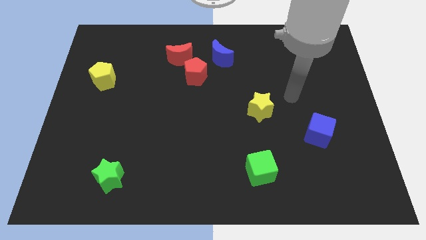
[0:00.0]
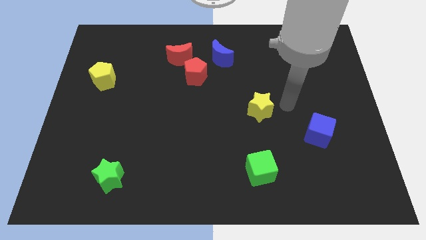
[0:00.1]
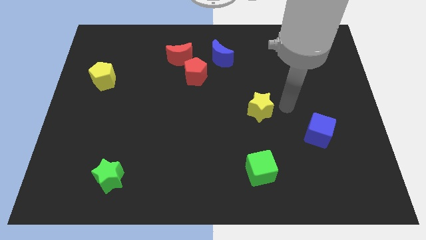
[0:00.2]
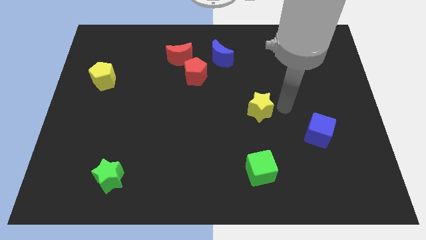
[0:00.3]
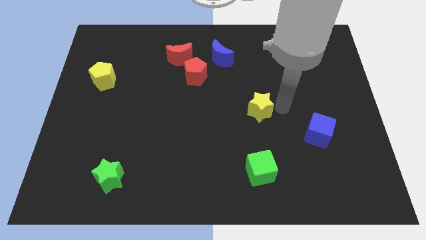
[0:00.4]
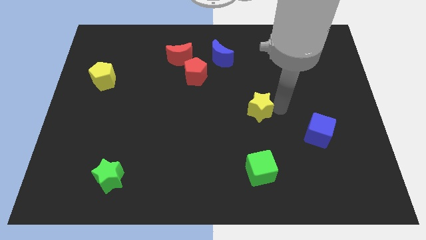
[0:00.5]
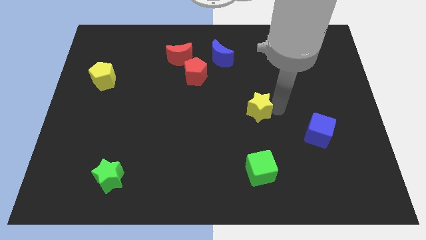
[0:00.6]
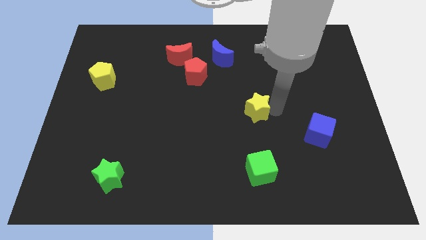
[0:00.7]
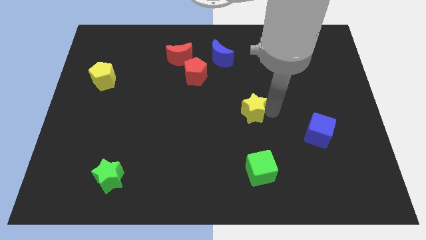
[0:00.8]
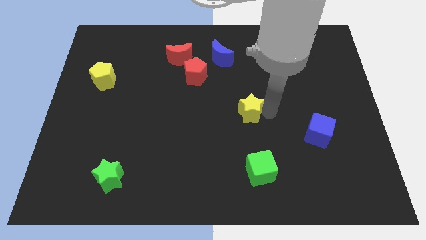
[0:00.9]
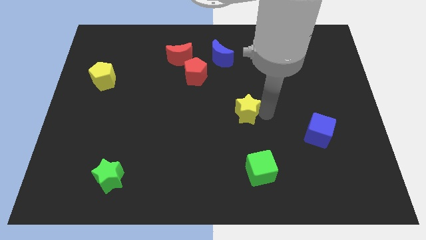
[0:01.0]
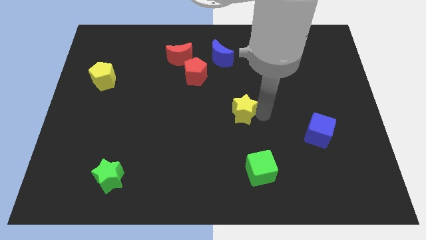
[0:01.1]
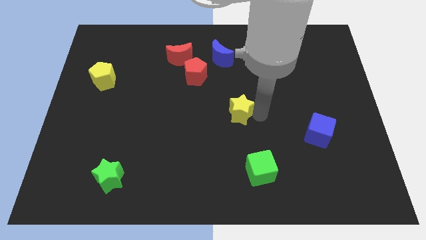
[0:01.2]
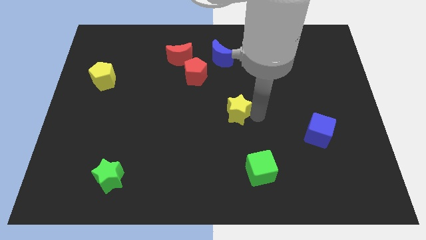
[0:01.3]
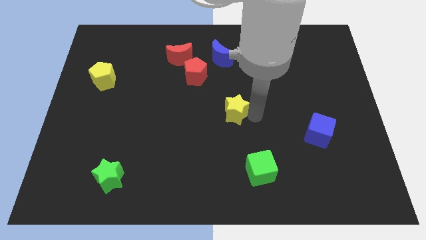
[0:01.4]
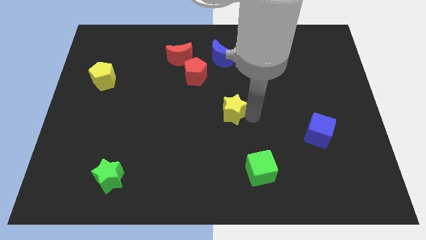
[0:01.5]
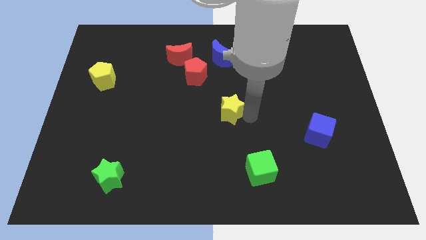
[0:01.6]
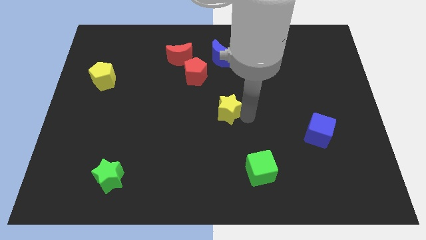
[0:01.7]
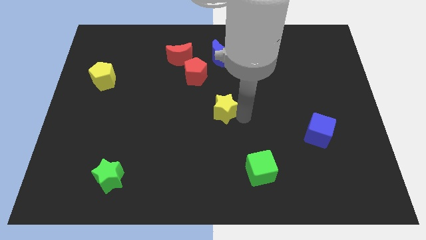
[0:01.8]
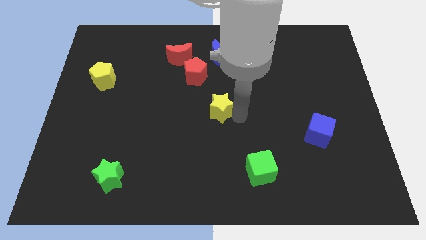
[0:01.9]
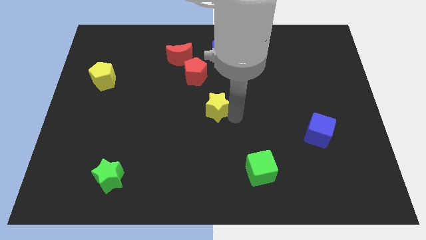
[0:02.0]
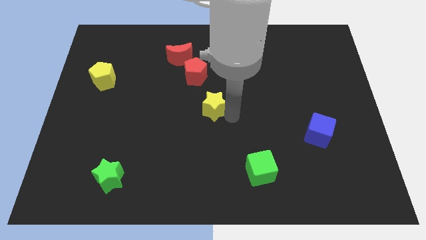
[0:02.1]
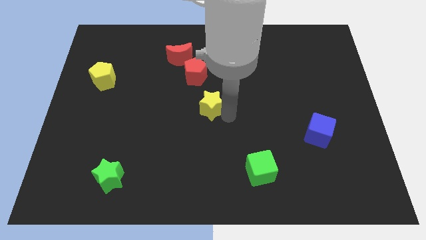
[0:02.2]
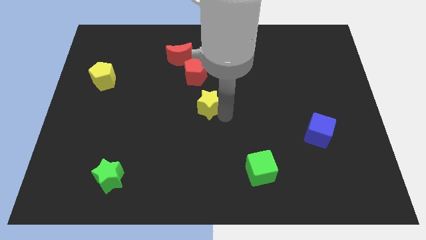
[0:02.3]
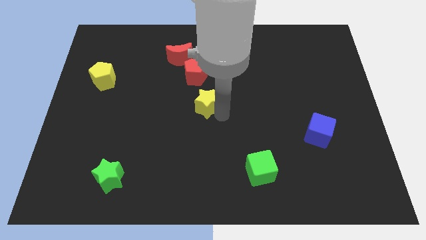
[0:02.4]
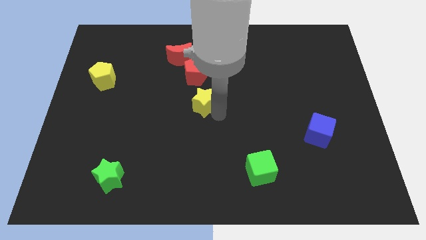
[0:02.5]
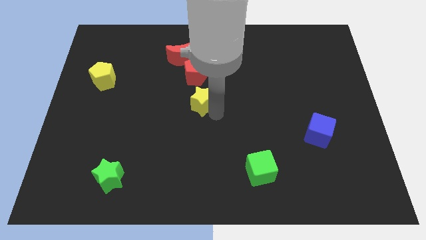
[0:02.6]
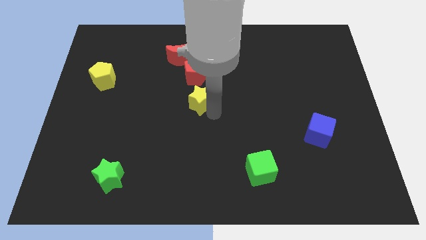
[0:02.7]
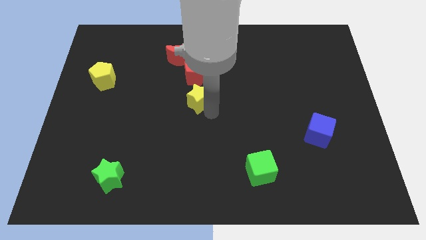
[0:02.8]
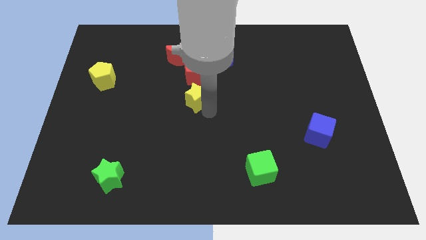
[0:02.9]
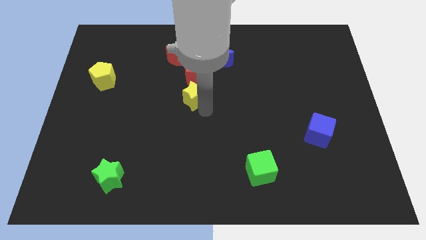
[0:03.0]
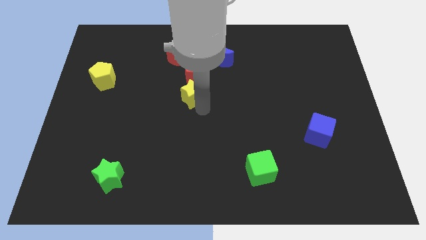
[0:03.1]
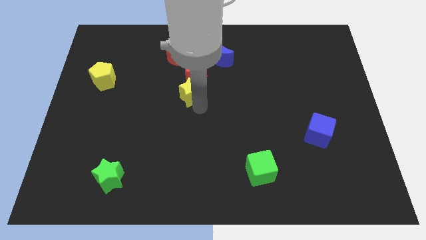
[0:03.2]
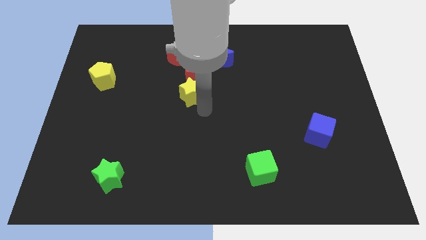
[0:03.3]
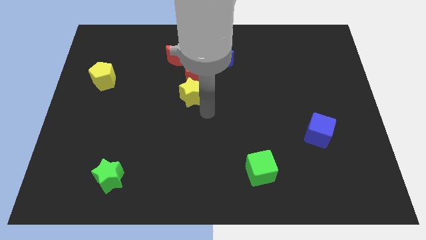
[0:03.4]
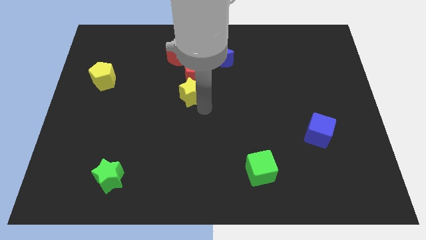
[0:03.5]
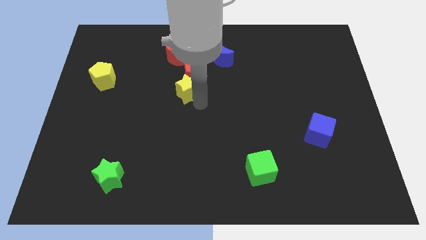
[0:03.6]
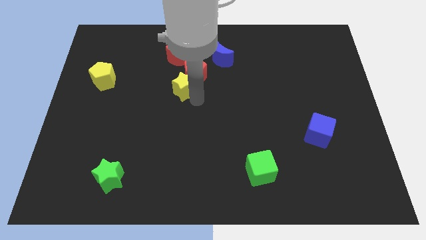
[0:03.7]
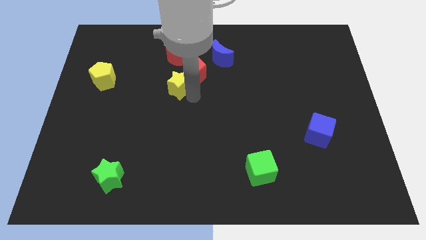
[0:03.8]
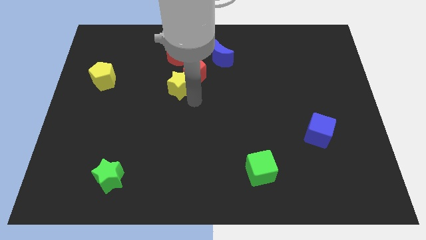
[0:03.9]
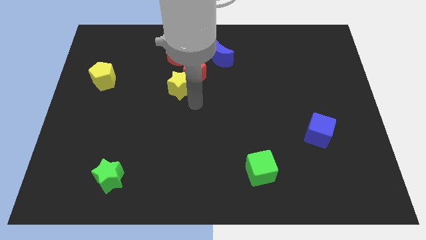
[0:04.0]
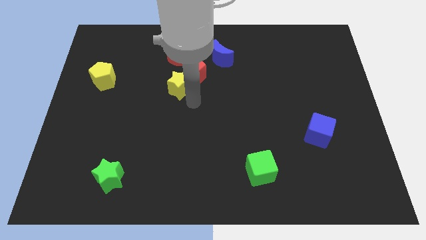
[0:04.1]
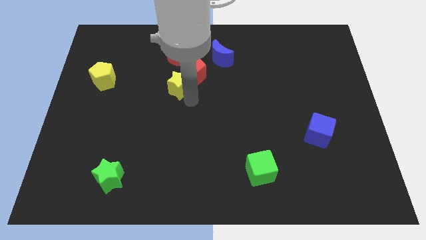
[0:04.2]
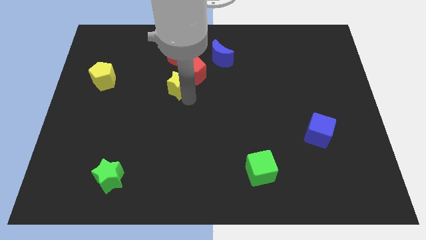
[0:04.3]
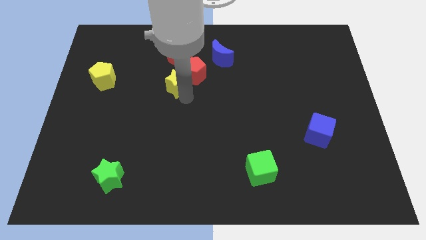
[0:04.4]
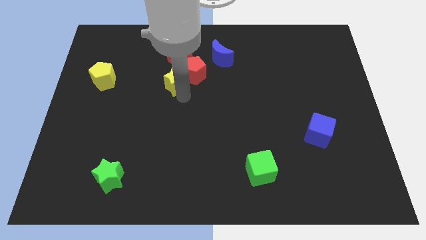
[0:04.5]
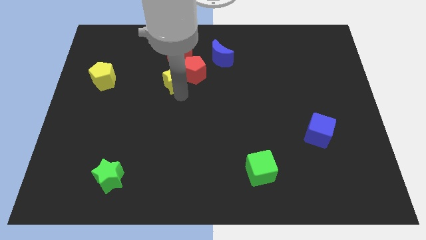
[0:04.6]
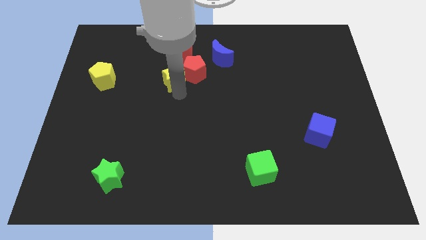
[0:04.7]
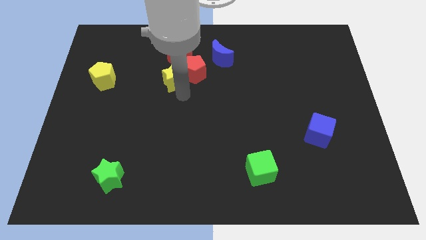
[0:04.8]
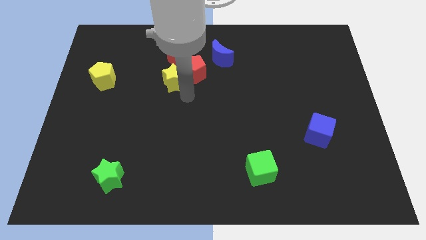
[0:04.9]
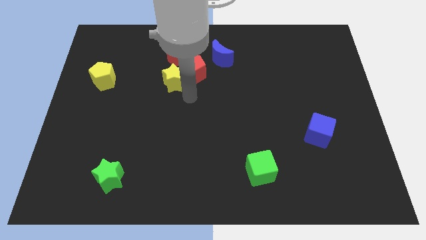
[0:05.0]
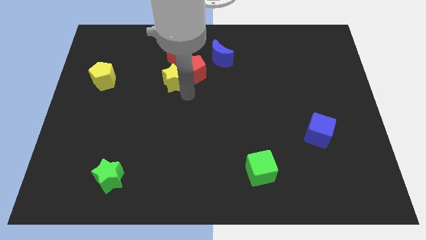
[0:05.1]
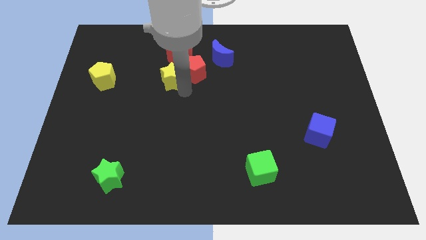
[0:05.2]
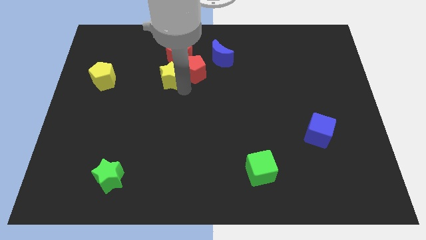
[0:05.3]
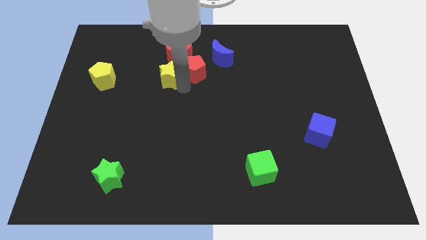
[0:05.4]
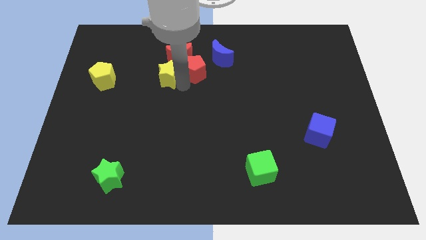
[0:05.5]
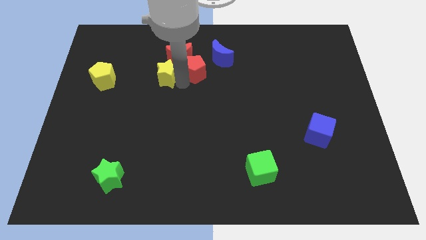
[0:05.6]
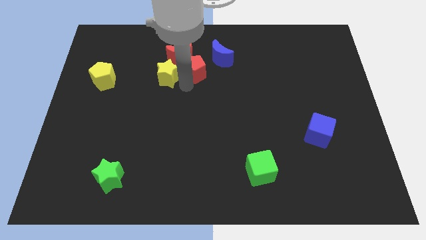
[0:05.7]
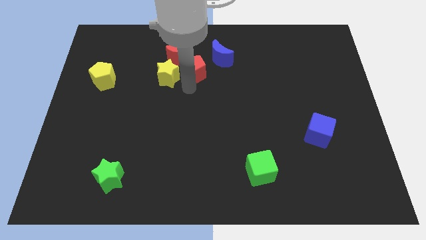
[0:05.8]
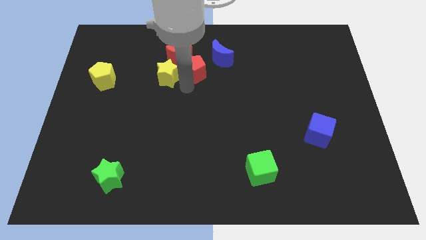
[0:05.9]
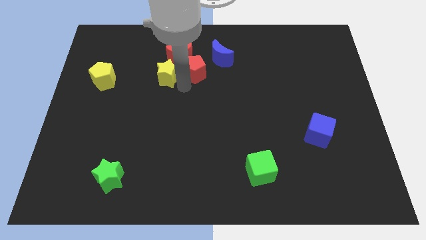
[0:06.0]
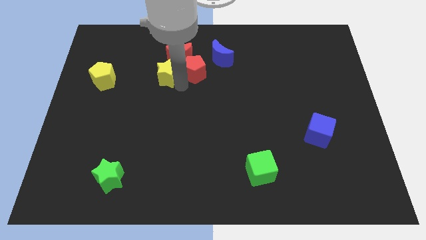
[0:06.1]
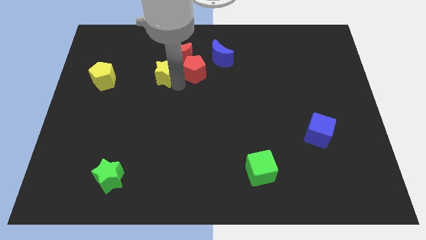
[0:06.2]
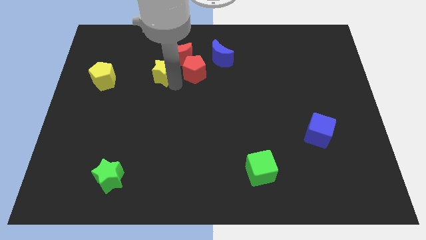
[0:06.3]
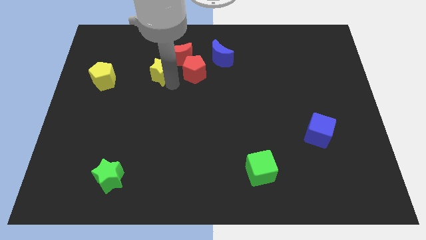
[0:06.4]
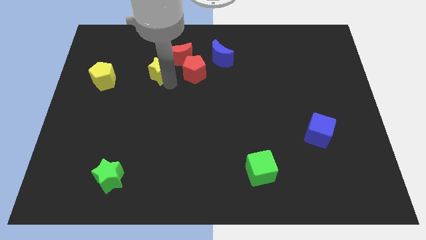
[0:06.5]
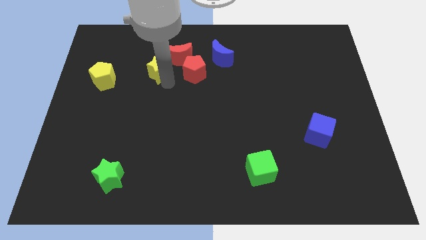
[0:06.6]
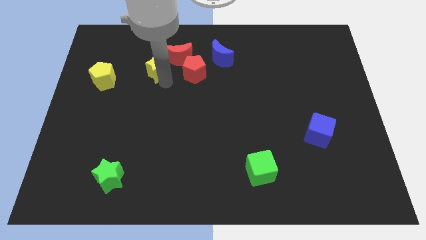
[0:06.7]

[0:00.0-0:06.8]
move the yellow star to the left side of the red moon
